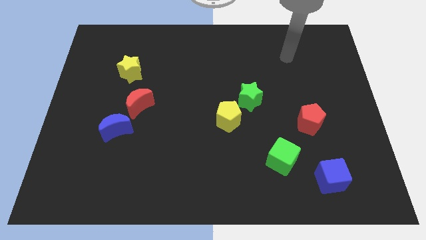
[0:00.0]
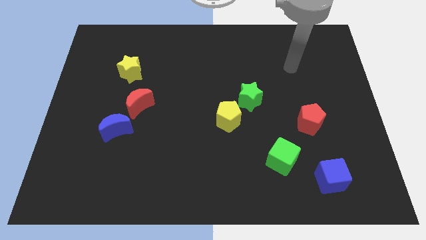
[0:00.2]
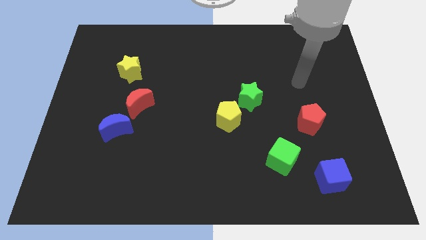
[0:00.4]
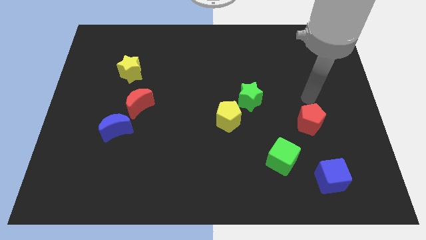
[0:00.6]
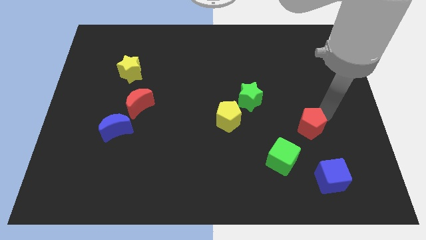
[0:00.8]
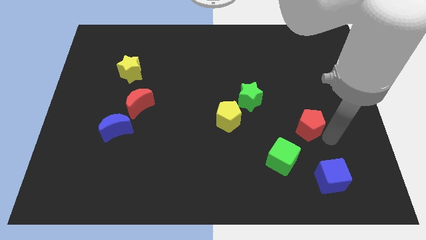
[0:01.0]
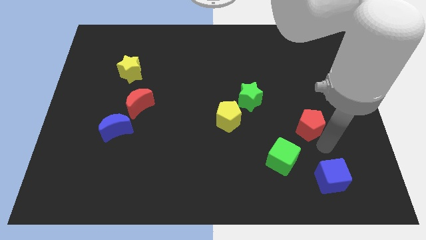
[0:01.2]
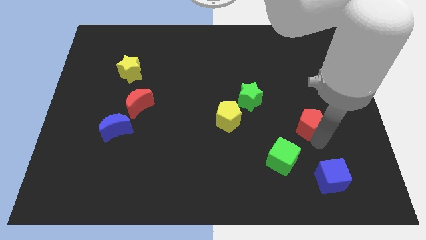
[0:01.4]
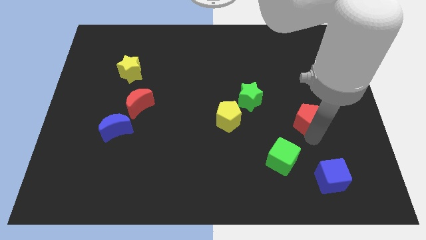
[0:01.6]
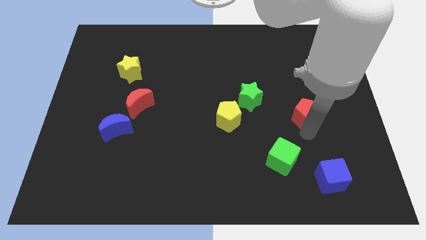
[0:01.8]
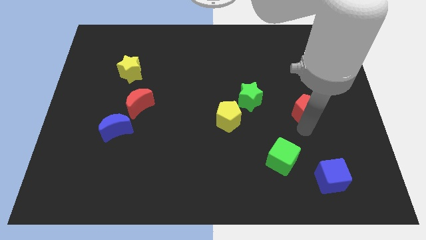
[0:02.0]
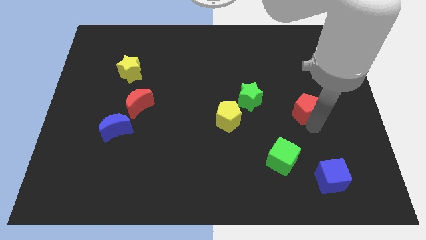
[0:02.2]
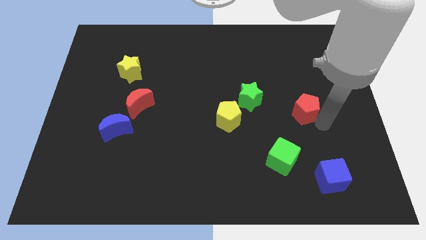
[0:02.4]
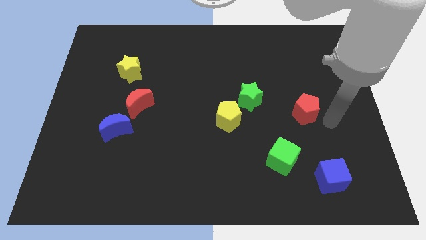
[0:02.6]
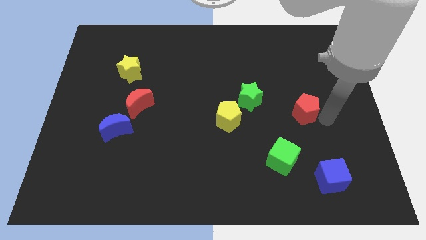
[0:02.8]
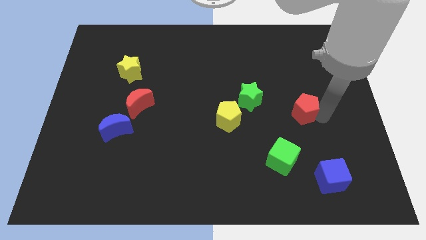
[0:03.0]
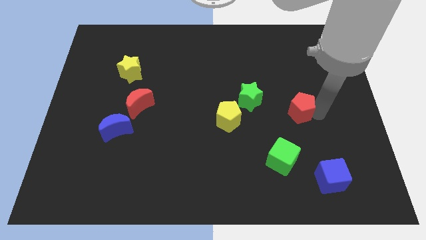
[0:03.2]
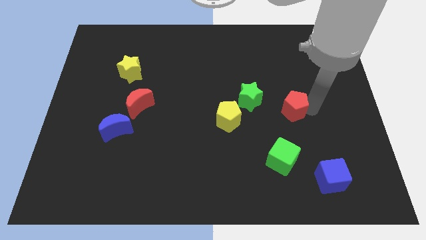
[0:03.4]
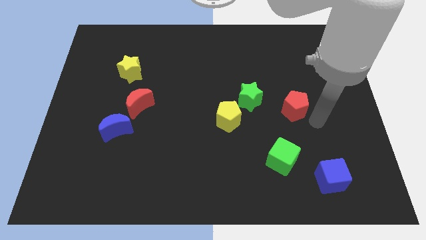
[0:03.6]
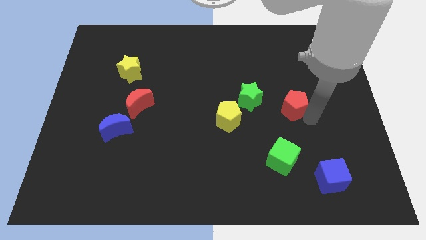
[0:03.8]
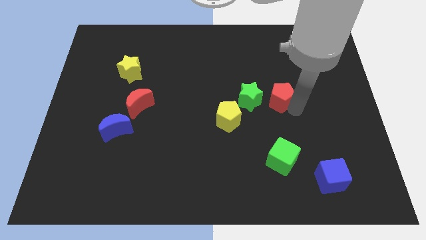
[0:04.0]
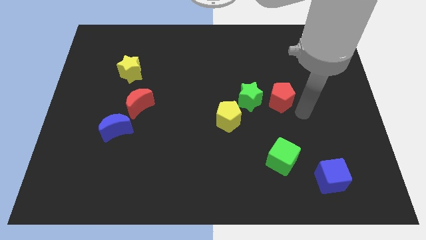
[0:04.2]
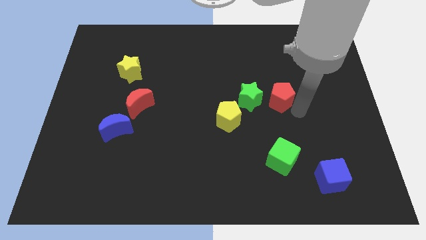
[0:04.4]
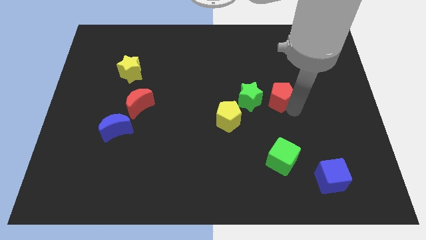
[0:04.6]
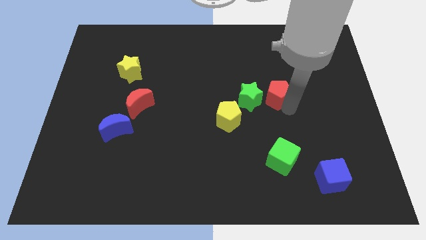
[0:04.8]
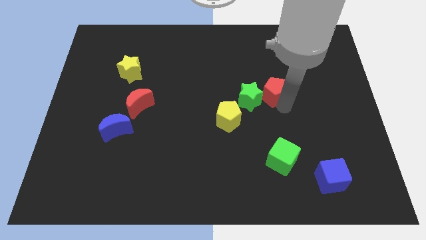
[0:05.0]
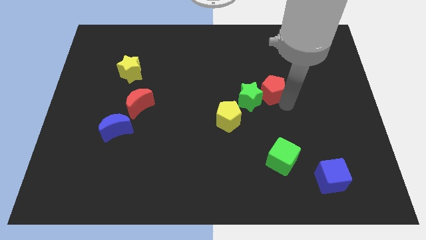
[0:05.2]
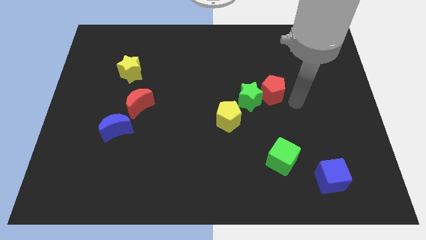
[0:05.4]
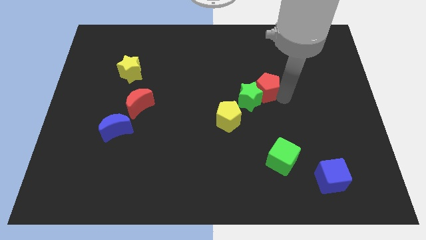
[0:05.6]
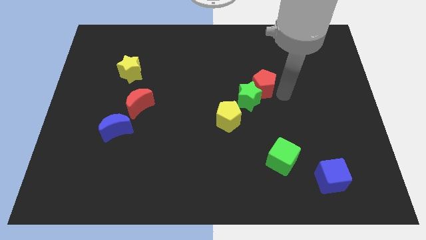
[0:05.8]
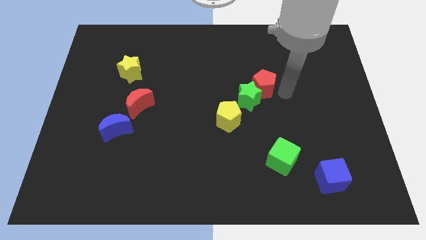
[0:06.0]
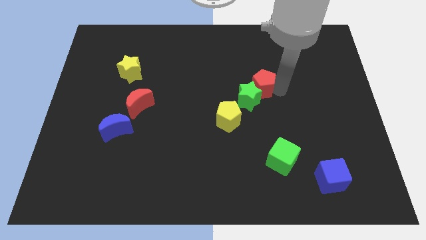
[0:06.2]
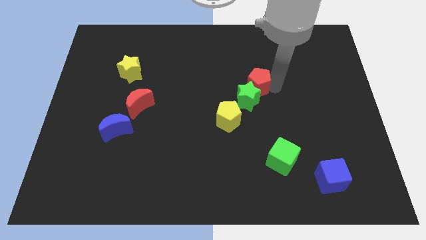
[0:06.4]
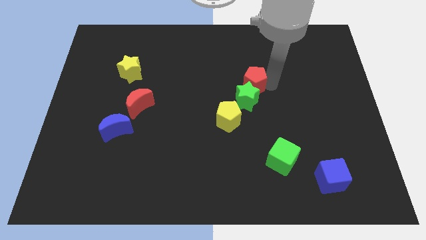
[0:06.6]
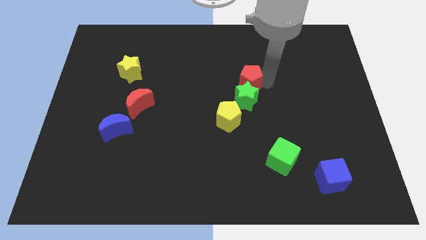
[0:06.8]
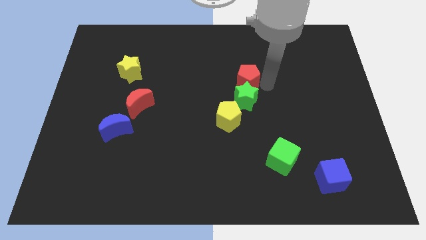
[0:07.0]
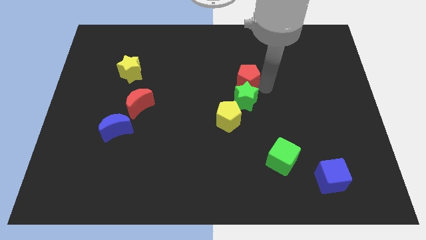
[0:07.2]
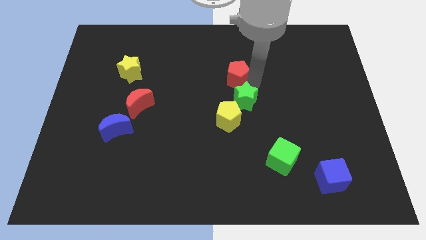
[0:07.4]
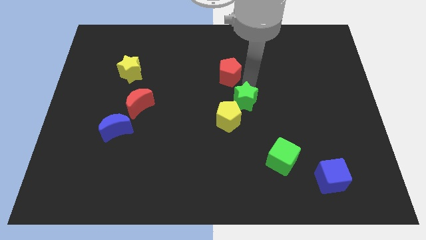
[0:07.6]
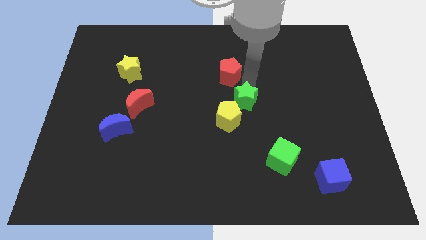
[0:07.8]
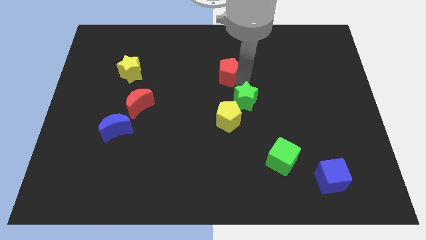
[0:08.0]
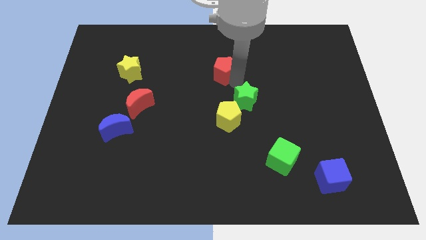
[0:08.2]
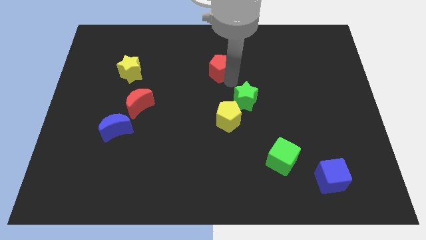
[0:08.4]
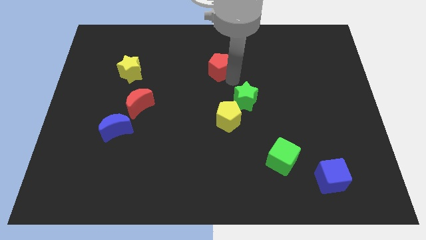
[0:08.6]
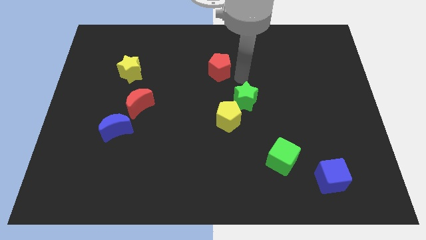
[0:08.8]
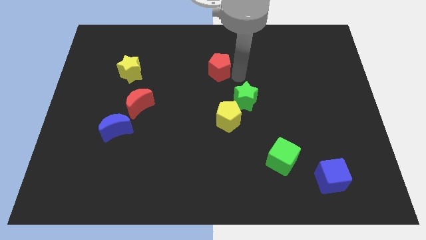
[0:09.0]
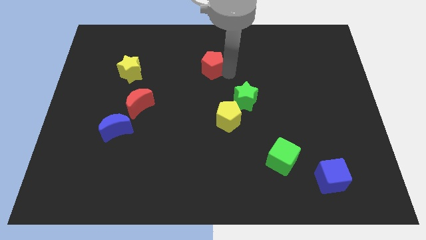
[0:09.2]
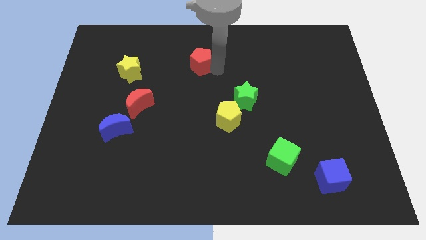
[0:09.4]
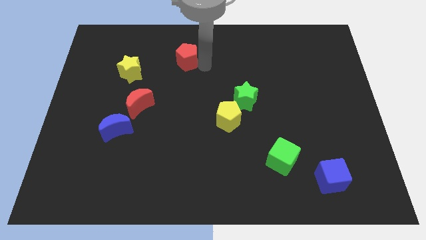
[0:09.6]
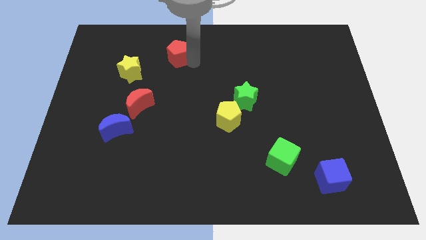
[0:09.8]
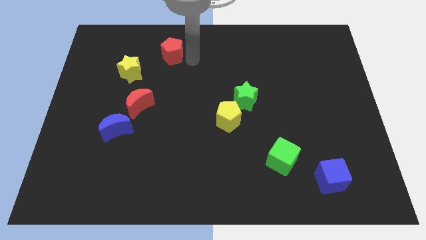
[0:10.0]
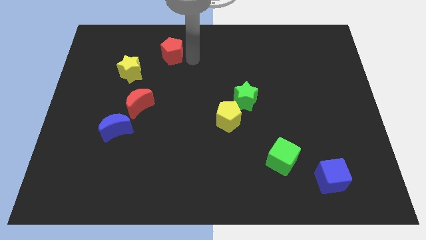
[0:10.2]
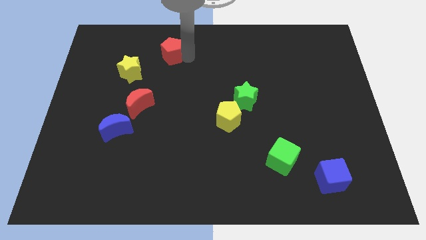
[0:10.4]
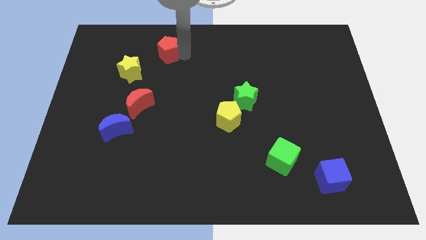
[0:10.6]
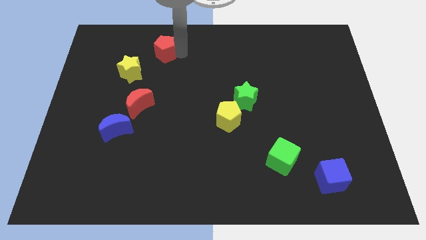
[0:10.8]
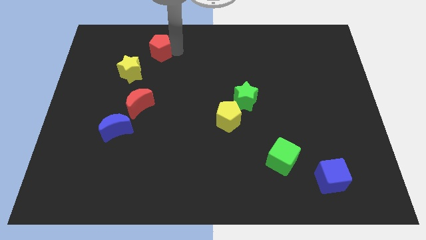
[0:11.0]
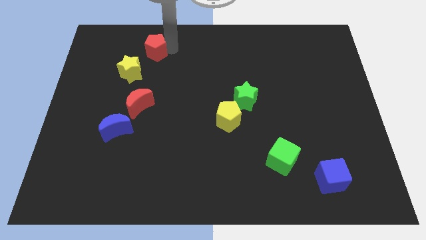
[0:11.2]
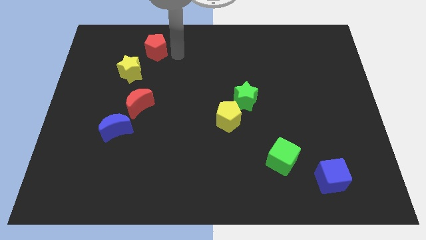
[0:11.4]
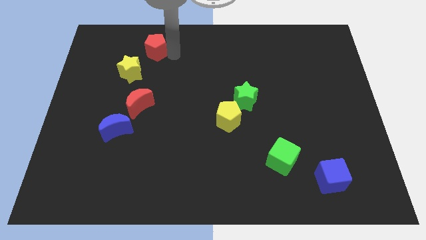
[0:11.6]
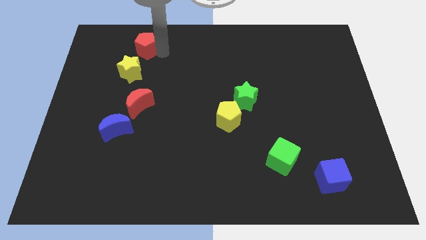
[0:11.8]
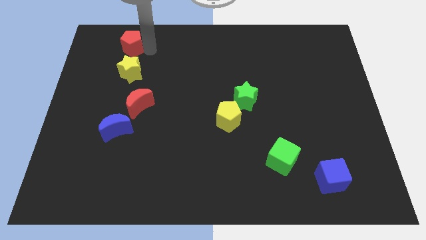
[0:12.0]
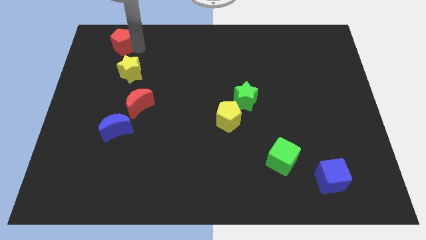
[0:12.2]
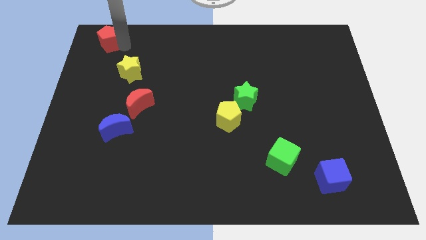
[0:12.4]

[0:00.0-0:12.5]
push the red pentagon to the top left

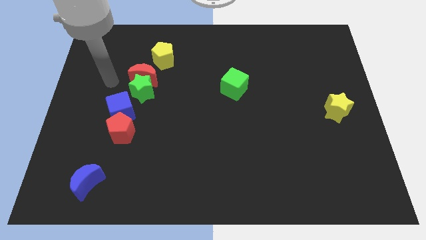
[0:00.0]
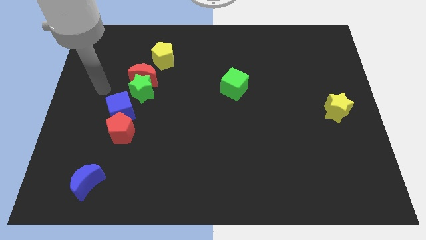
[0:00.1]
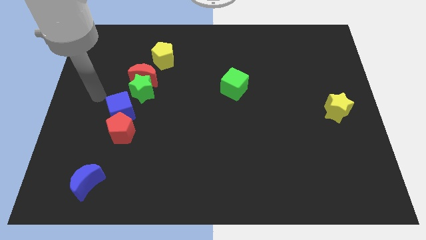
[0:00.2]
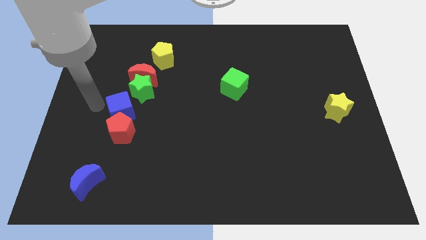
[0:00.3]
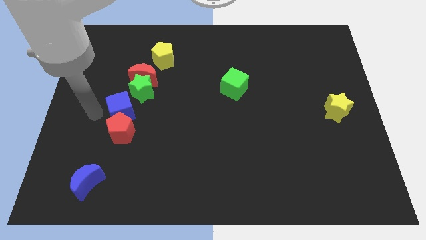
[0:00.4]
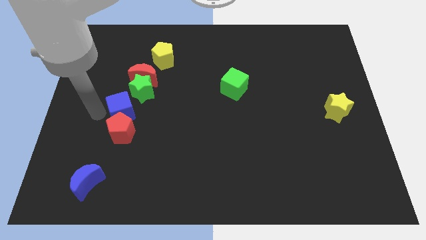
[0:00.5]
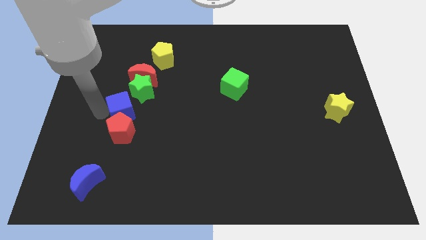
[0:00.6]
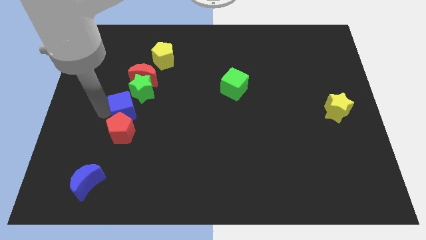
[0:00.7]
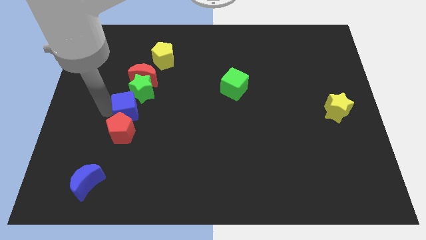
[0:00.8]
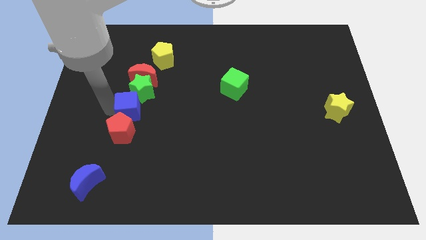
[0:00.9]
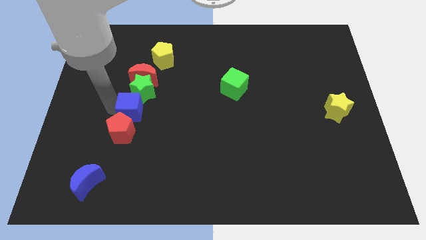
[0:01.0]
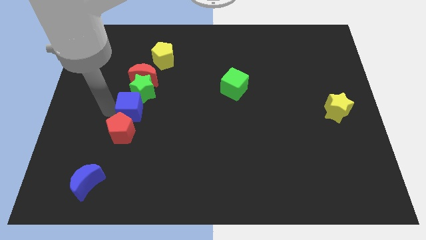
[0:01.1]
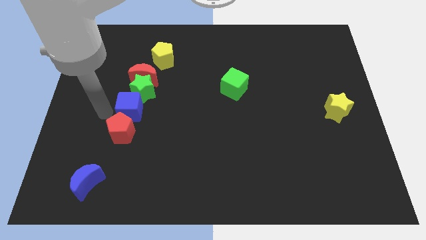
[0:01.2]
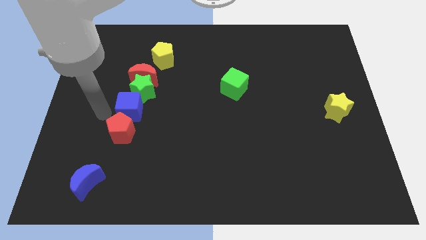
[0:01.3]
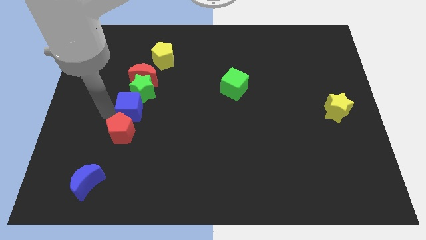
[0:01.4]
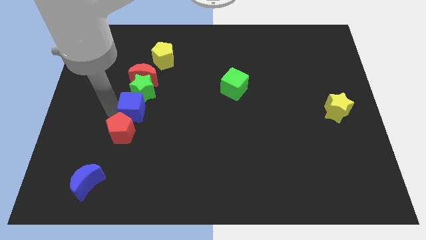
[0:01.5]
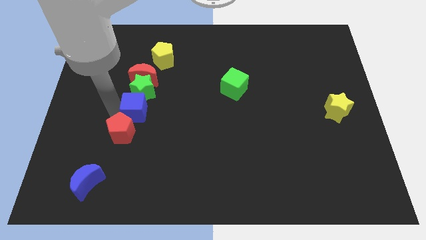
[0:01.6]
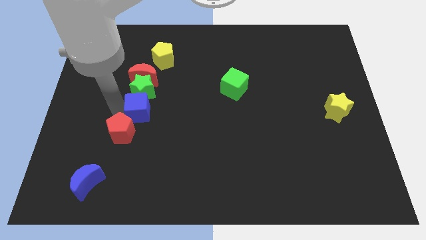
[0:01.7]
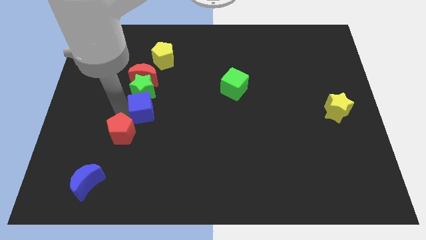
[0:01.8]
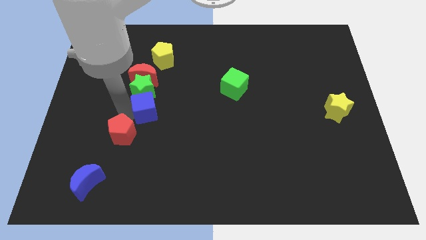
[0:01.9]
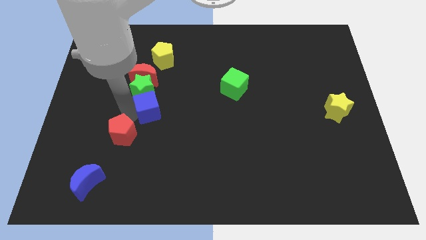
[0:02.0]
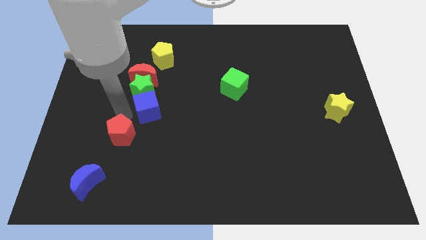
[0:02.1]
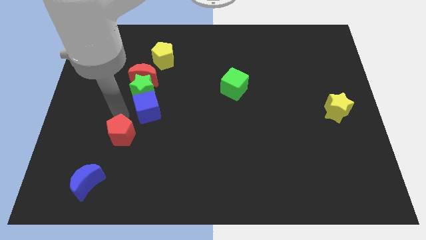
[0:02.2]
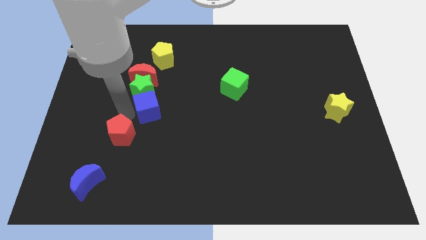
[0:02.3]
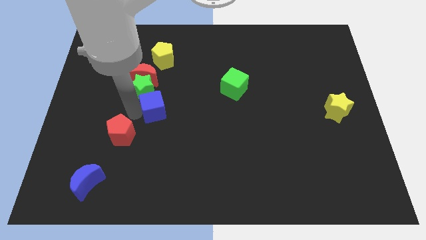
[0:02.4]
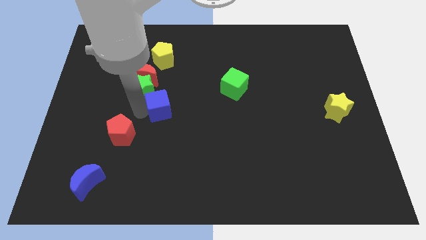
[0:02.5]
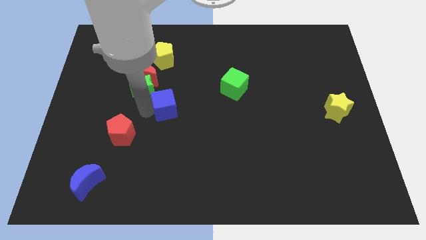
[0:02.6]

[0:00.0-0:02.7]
slide the blue cube to the middle of the board
